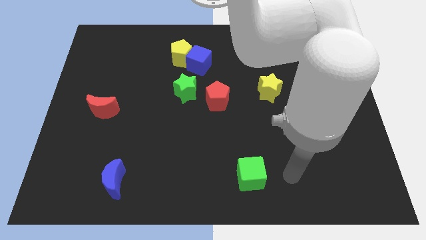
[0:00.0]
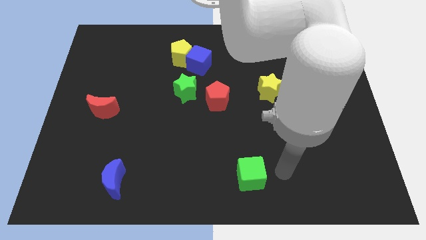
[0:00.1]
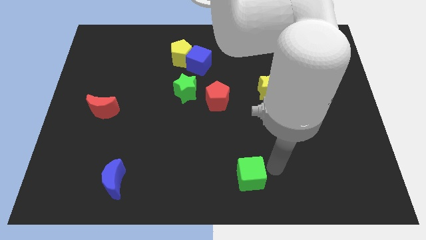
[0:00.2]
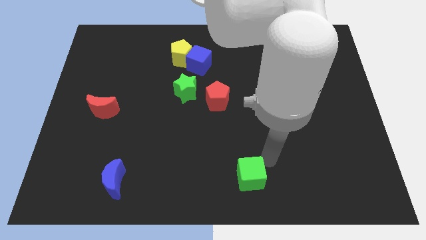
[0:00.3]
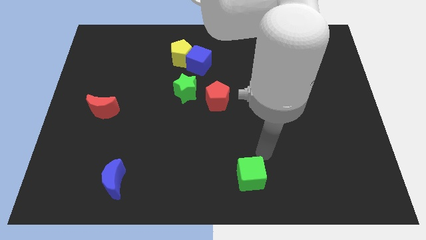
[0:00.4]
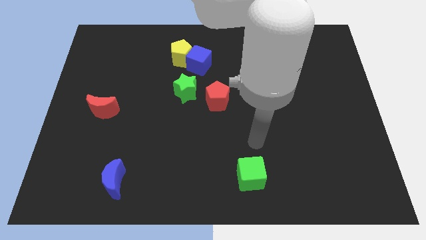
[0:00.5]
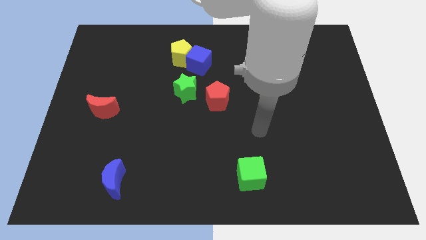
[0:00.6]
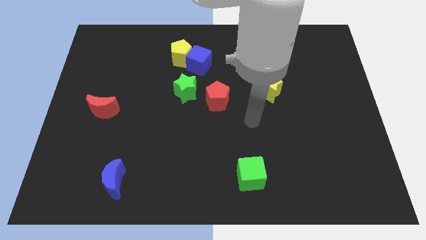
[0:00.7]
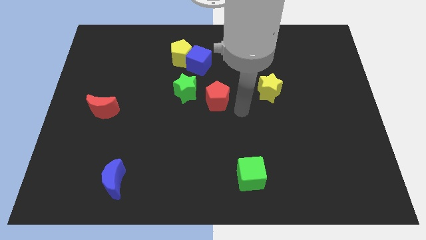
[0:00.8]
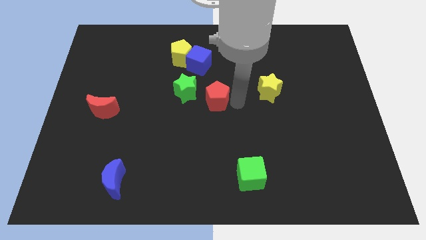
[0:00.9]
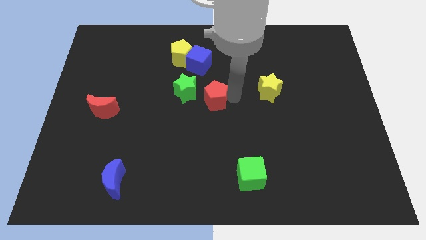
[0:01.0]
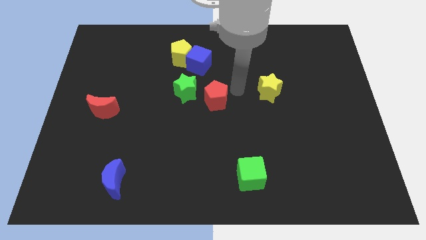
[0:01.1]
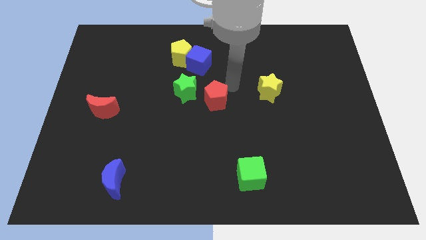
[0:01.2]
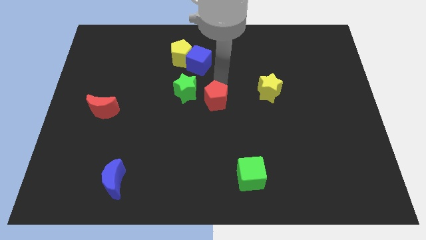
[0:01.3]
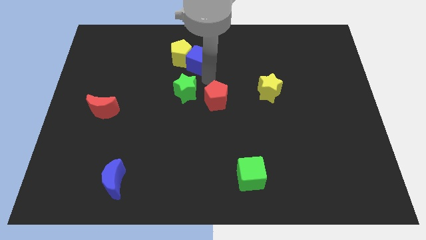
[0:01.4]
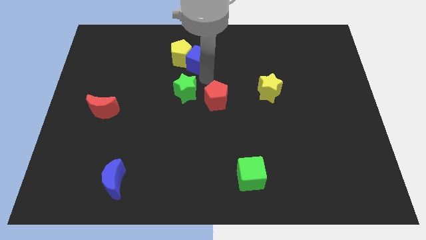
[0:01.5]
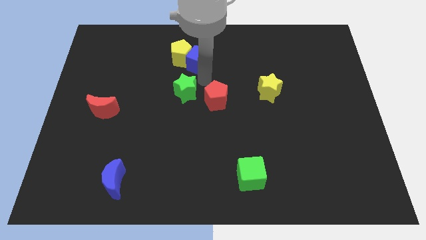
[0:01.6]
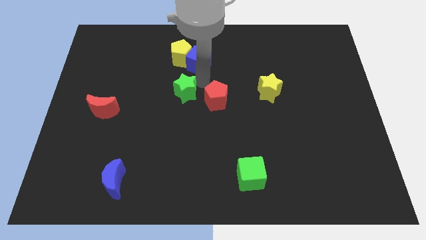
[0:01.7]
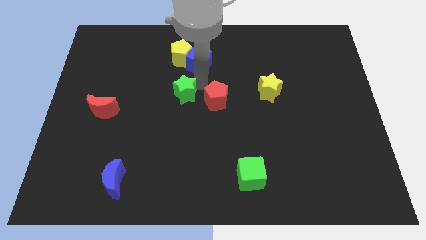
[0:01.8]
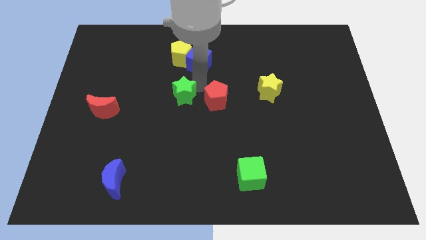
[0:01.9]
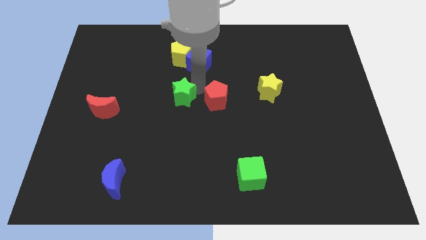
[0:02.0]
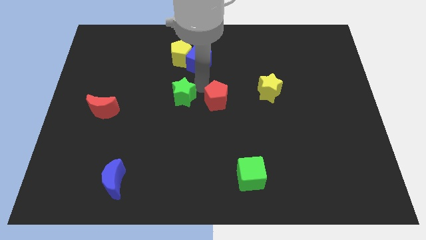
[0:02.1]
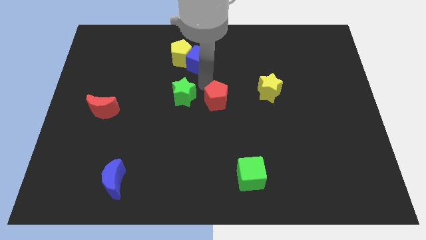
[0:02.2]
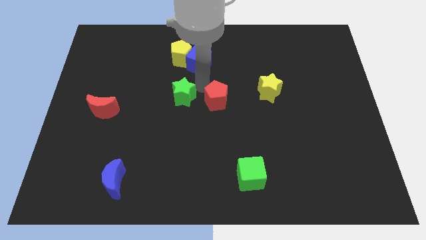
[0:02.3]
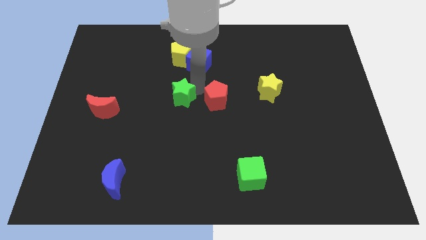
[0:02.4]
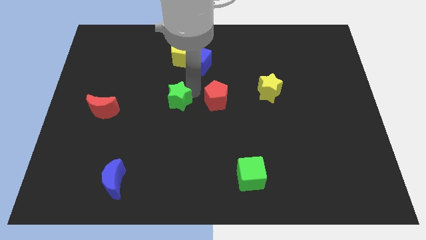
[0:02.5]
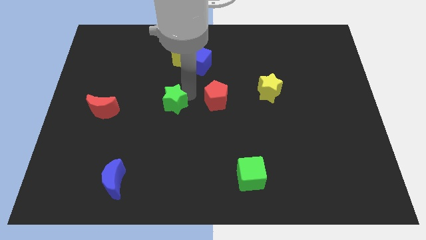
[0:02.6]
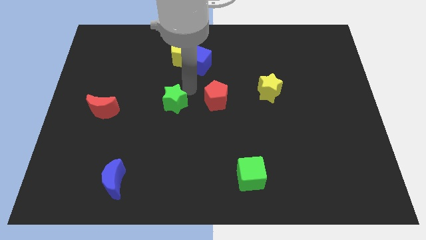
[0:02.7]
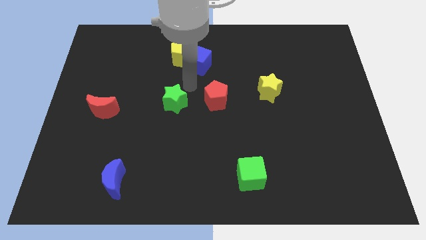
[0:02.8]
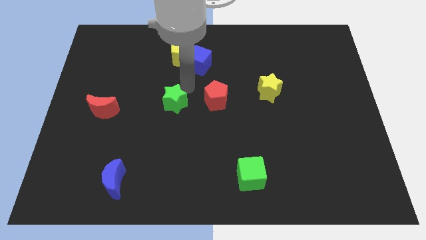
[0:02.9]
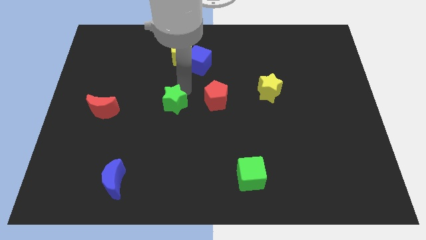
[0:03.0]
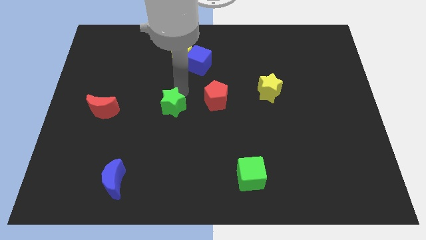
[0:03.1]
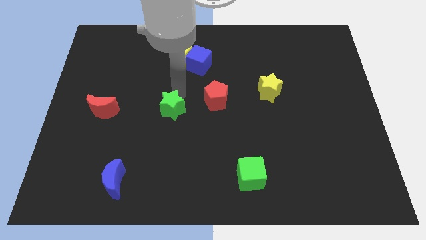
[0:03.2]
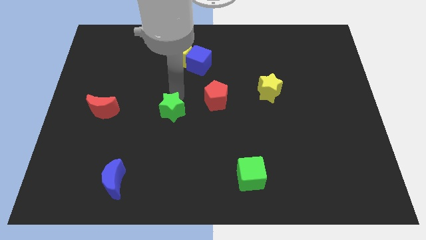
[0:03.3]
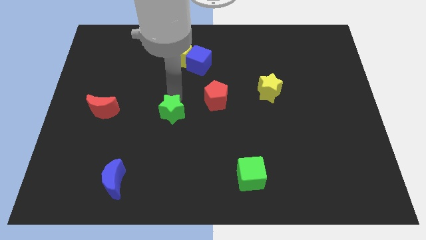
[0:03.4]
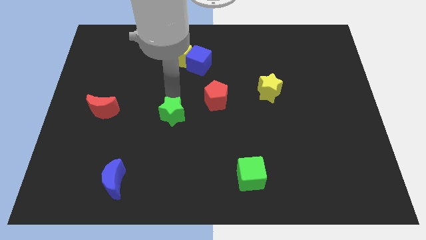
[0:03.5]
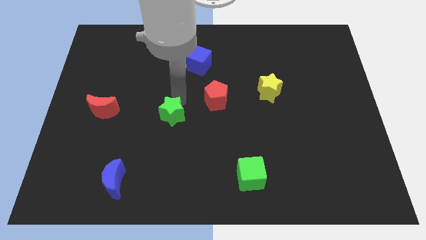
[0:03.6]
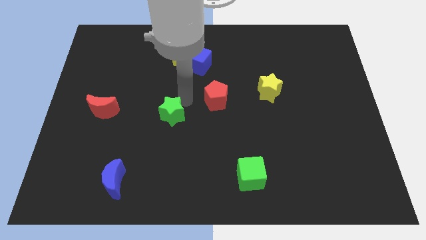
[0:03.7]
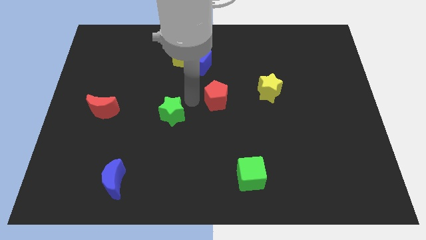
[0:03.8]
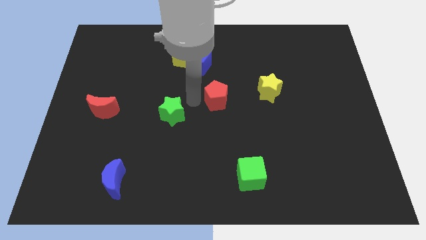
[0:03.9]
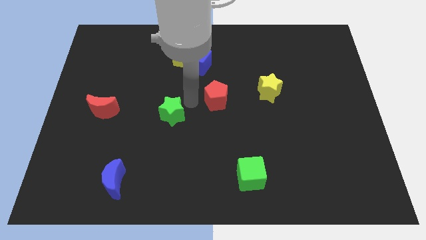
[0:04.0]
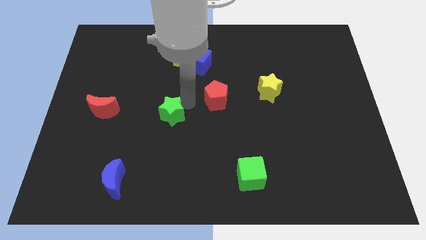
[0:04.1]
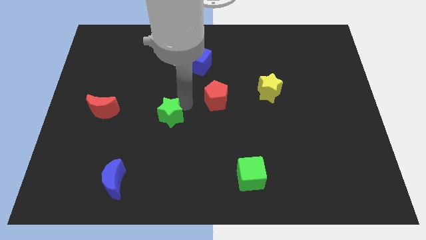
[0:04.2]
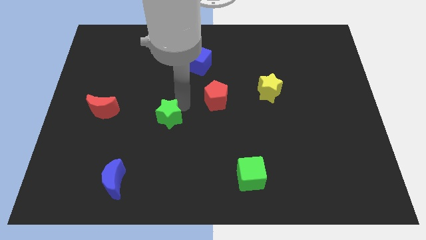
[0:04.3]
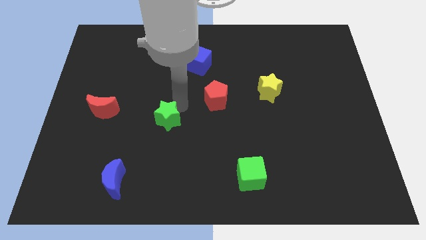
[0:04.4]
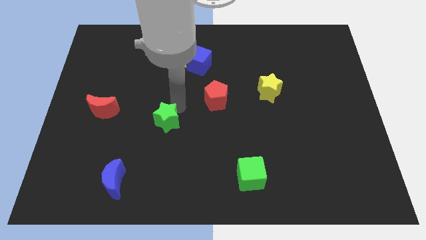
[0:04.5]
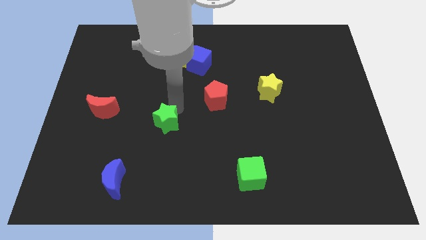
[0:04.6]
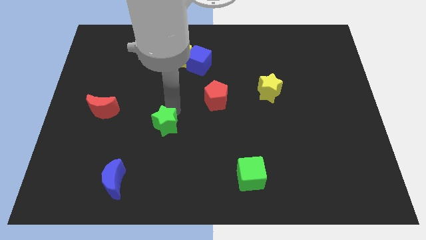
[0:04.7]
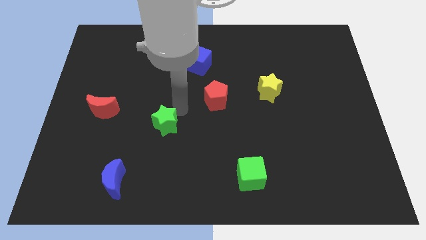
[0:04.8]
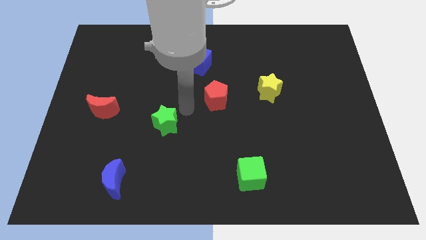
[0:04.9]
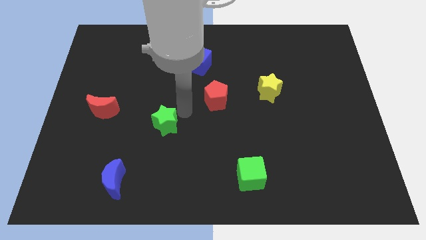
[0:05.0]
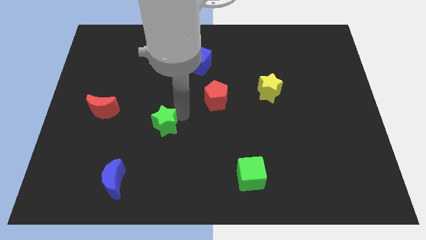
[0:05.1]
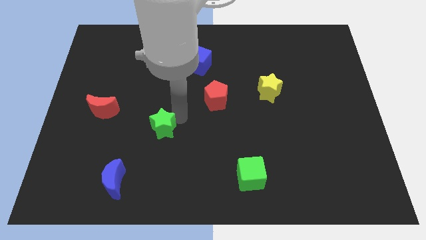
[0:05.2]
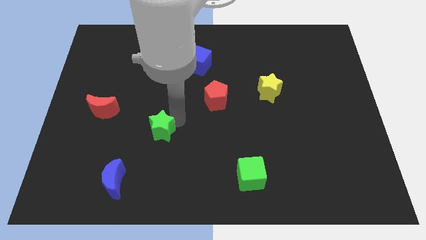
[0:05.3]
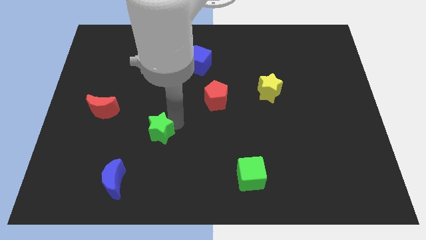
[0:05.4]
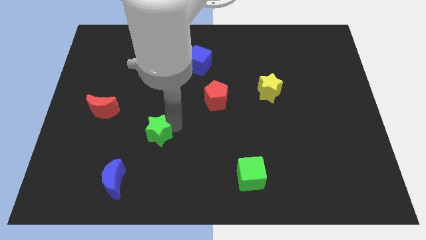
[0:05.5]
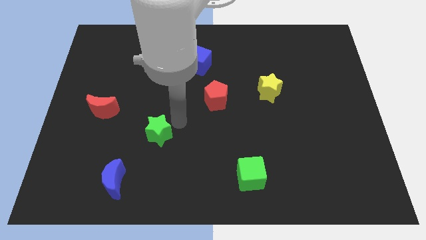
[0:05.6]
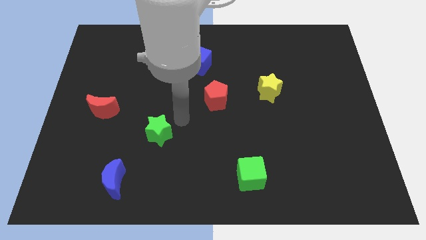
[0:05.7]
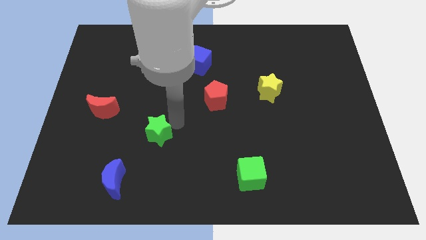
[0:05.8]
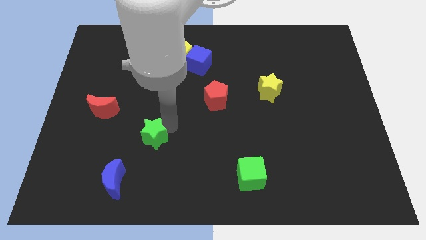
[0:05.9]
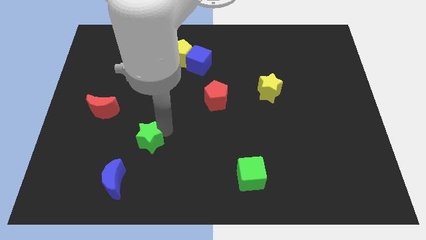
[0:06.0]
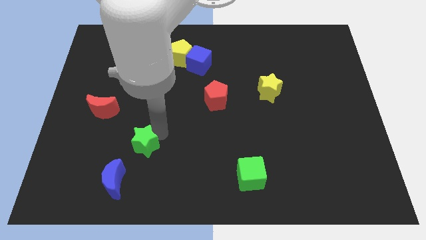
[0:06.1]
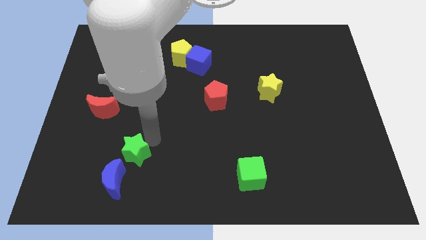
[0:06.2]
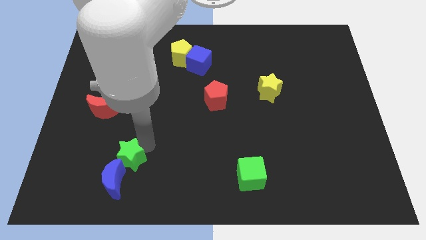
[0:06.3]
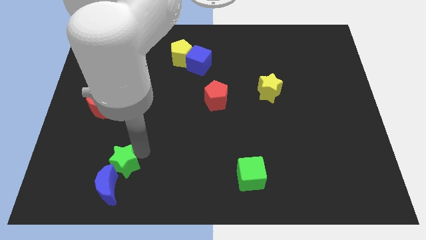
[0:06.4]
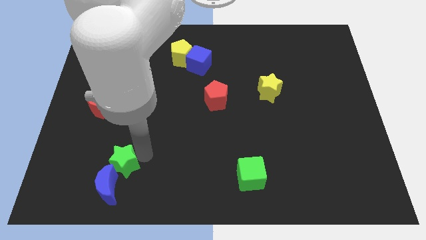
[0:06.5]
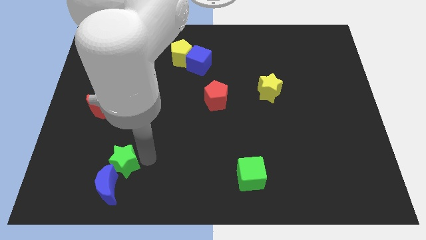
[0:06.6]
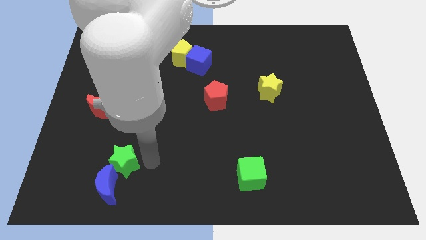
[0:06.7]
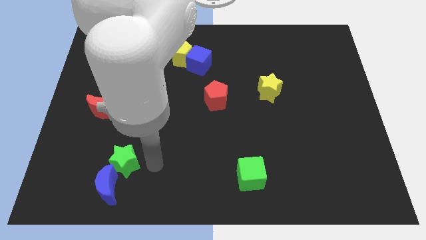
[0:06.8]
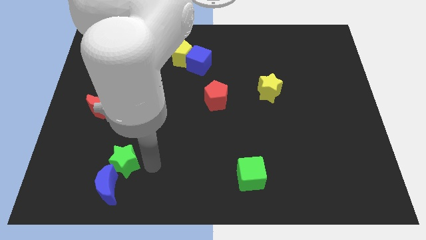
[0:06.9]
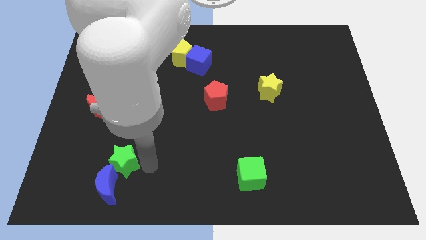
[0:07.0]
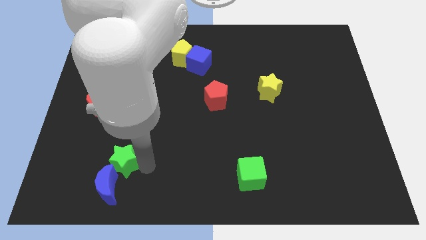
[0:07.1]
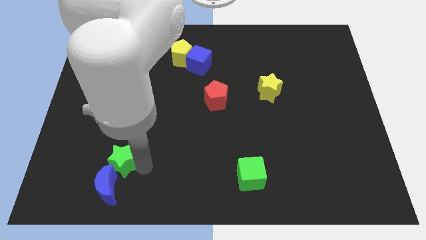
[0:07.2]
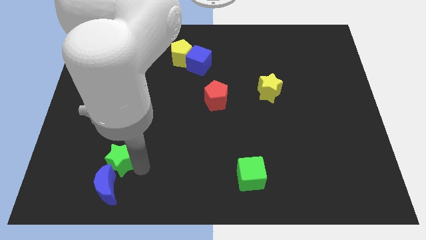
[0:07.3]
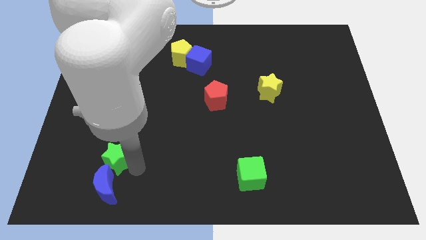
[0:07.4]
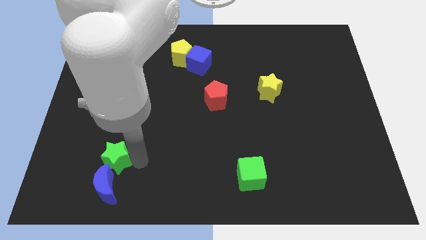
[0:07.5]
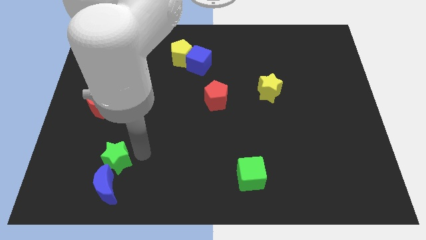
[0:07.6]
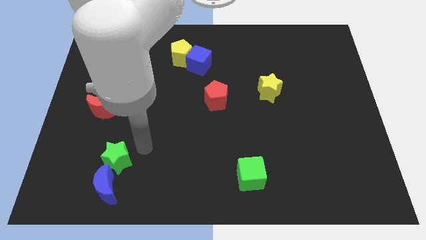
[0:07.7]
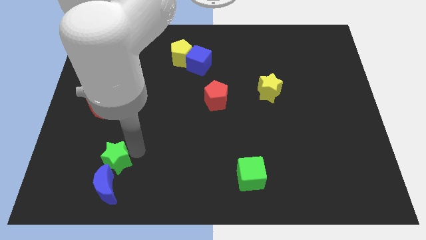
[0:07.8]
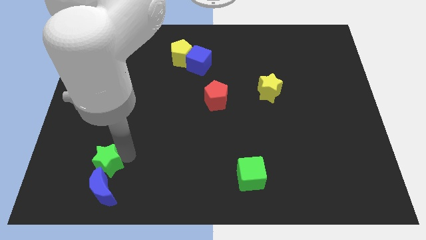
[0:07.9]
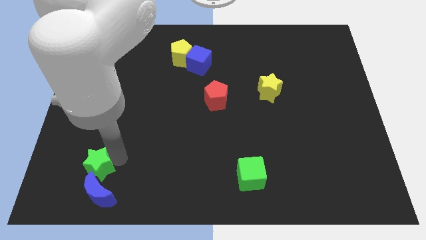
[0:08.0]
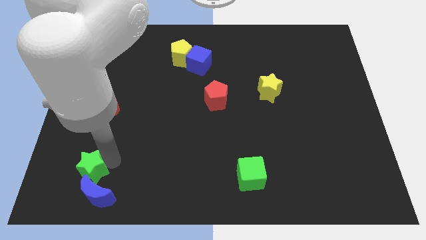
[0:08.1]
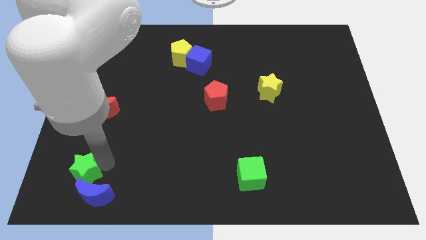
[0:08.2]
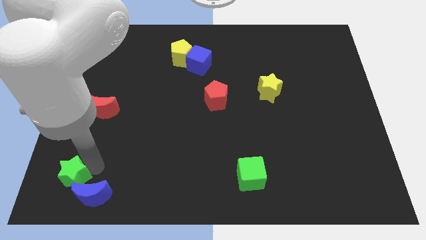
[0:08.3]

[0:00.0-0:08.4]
move the green star to the bottom left of the board
